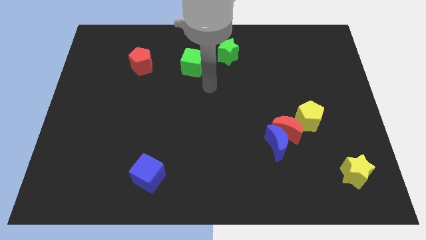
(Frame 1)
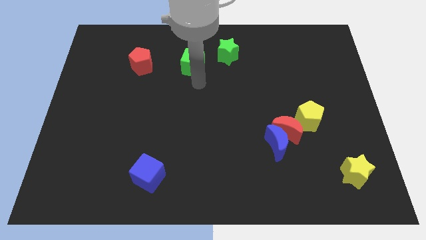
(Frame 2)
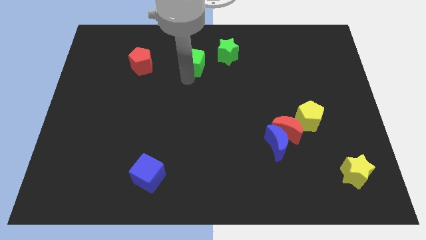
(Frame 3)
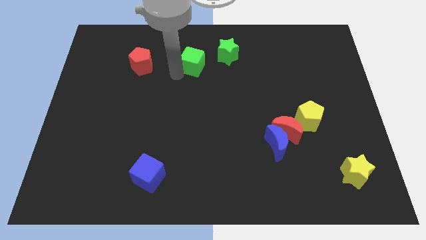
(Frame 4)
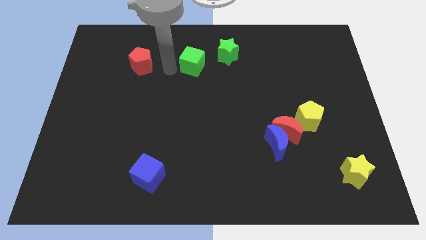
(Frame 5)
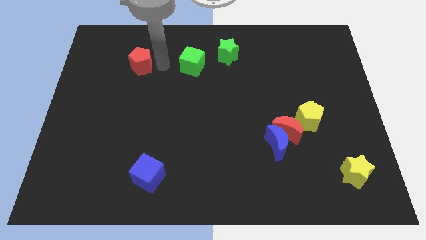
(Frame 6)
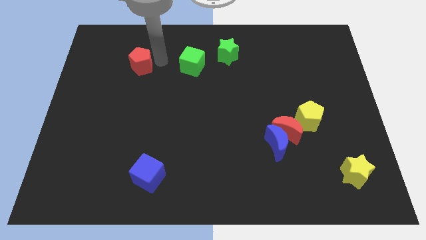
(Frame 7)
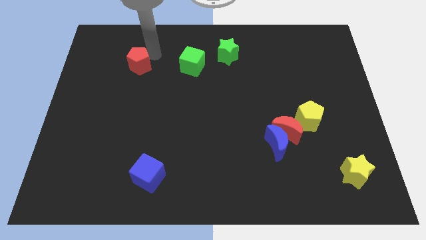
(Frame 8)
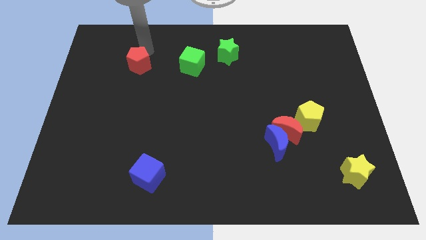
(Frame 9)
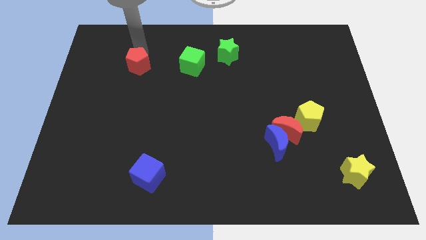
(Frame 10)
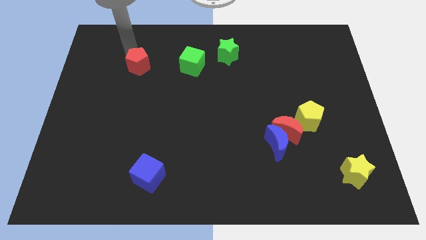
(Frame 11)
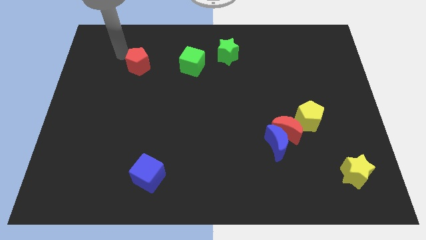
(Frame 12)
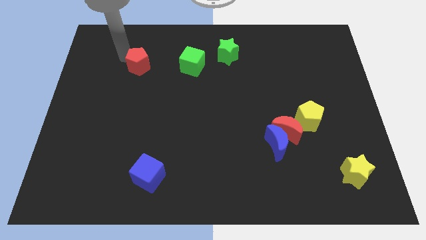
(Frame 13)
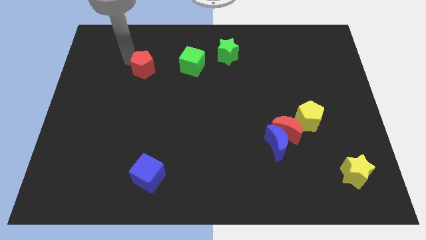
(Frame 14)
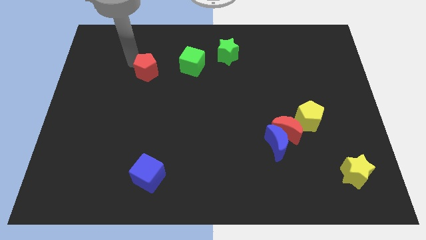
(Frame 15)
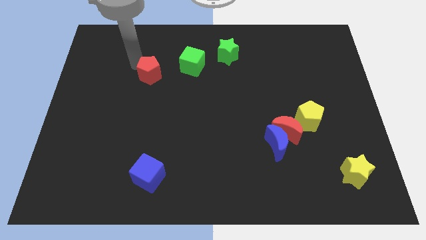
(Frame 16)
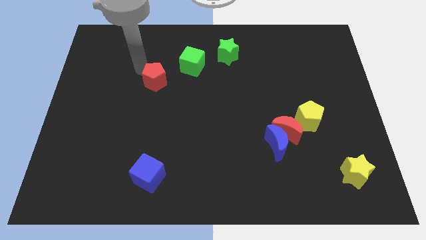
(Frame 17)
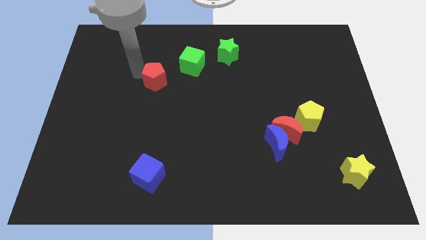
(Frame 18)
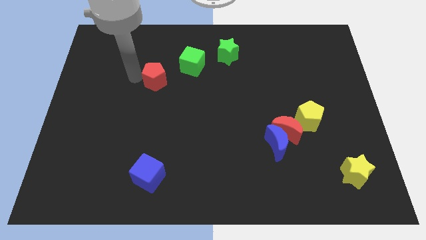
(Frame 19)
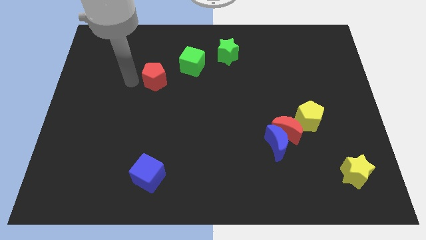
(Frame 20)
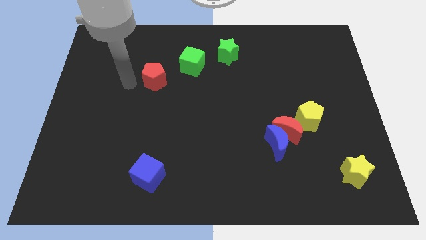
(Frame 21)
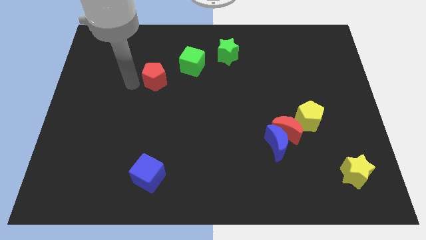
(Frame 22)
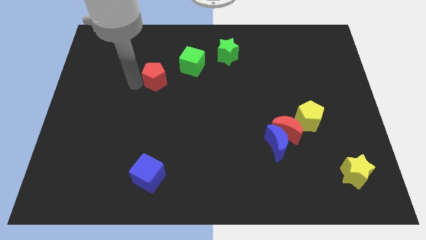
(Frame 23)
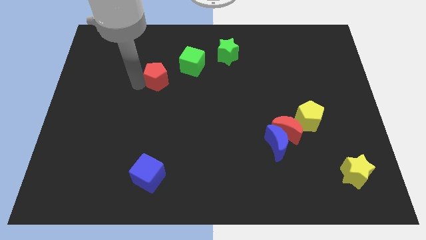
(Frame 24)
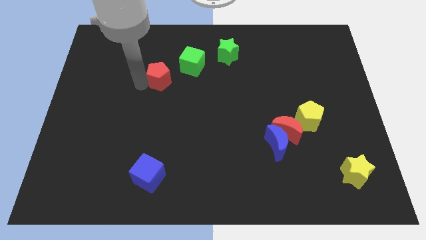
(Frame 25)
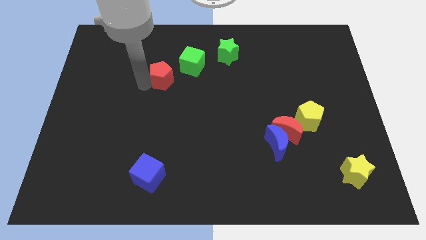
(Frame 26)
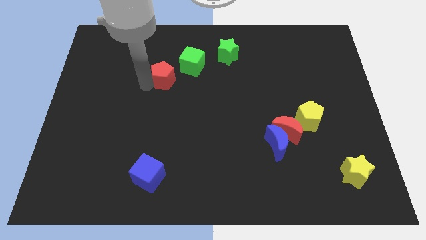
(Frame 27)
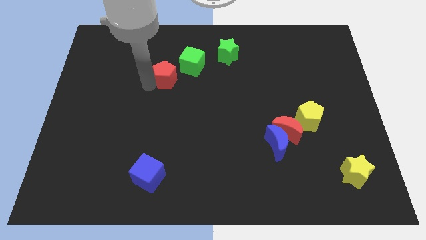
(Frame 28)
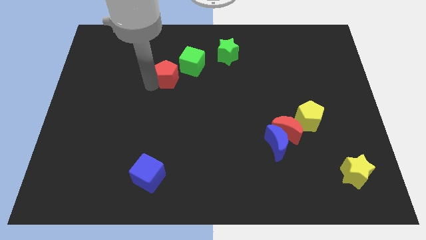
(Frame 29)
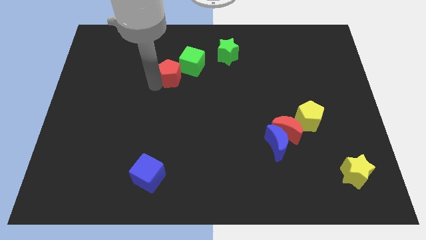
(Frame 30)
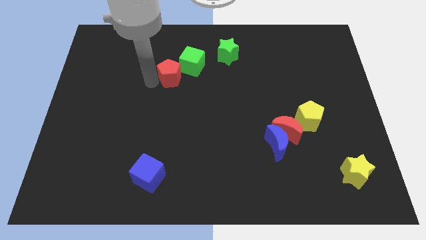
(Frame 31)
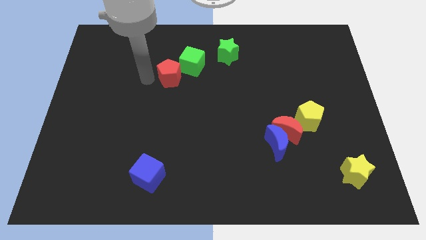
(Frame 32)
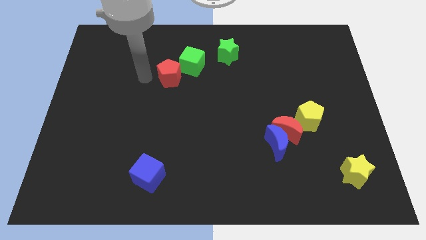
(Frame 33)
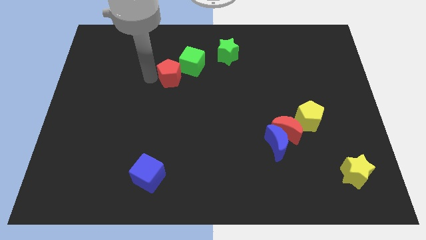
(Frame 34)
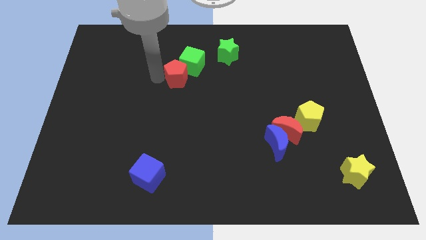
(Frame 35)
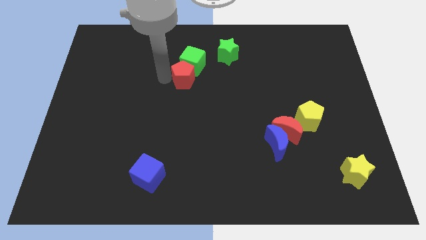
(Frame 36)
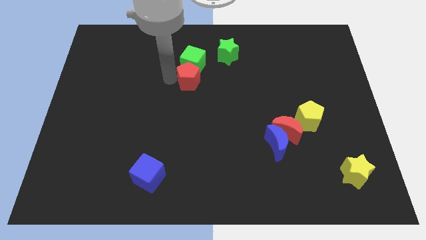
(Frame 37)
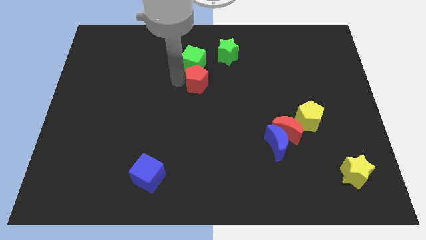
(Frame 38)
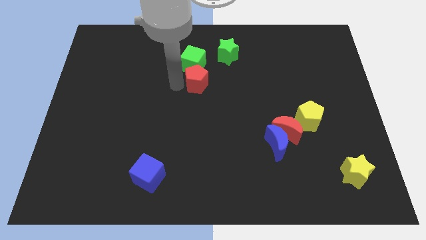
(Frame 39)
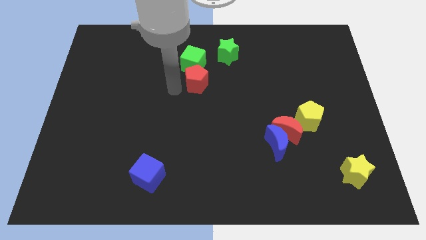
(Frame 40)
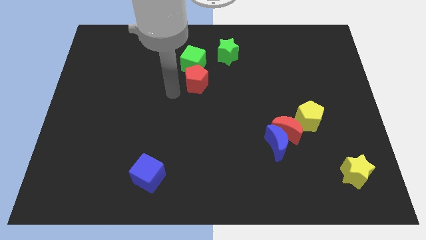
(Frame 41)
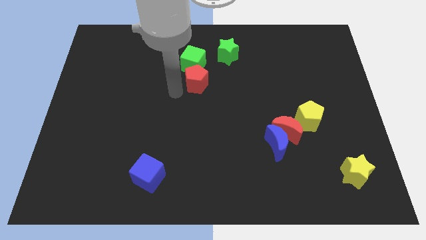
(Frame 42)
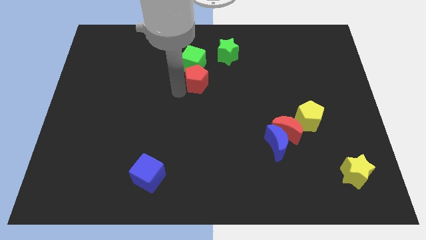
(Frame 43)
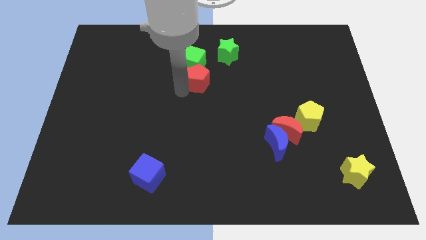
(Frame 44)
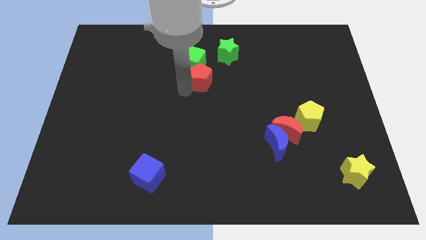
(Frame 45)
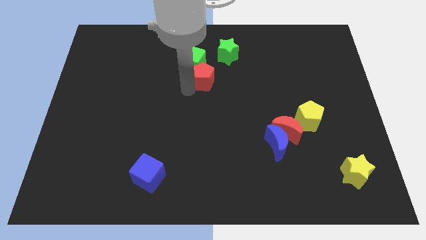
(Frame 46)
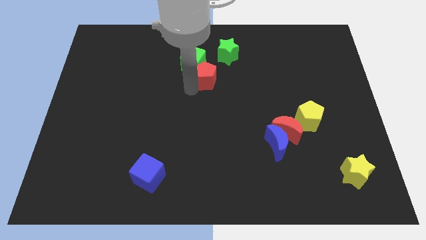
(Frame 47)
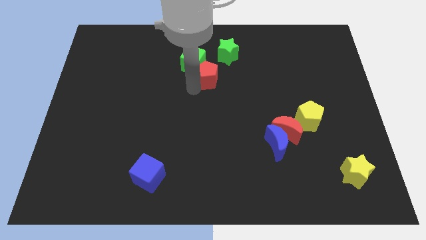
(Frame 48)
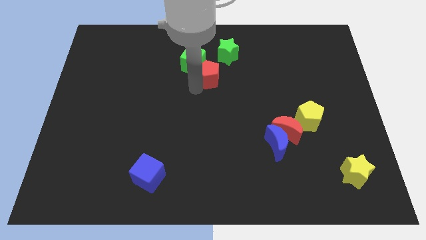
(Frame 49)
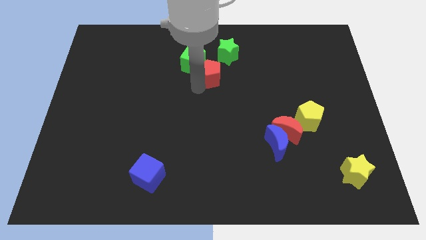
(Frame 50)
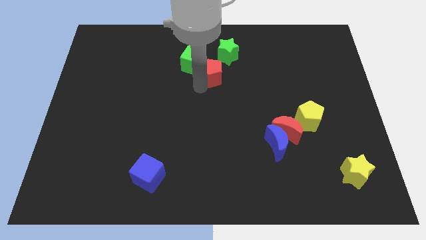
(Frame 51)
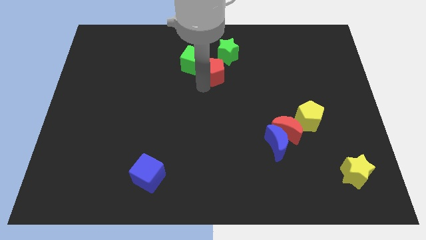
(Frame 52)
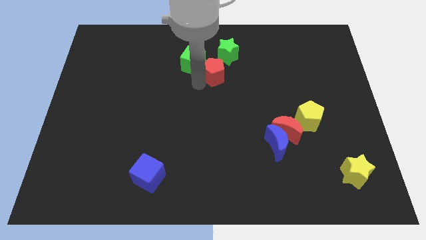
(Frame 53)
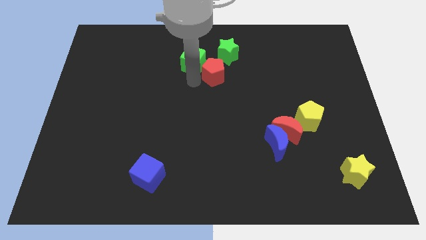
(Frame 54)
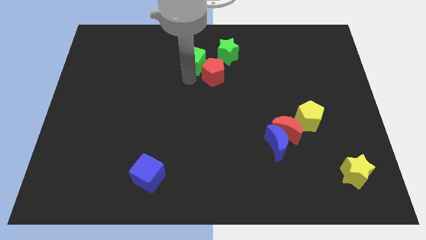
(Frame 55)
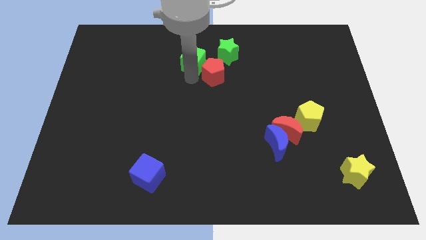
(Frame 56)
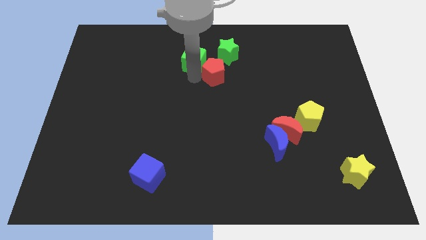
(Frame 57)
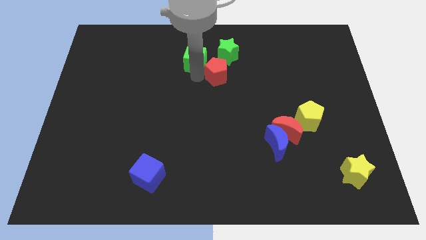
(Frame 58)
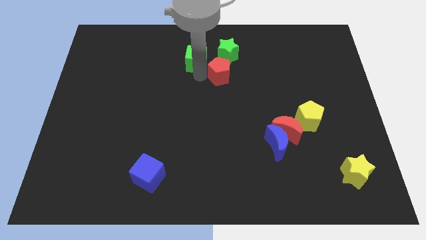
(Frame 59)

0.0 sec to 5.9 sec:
push the red pentagon to the right

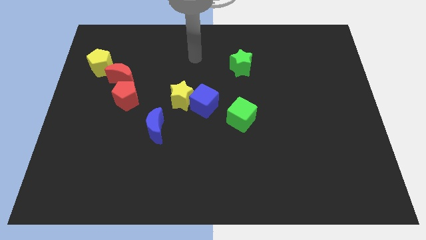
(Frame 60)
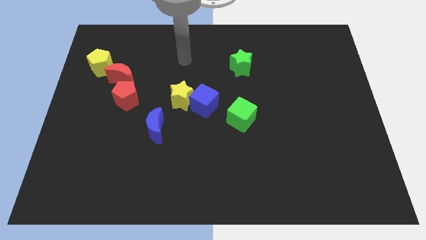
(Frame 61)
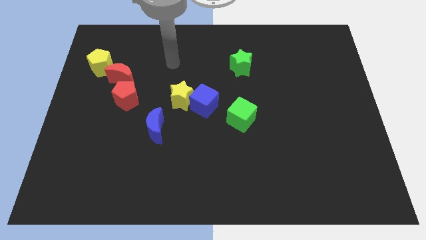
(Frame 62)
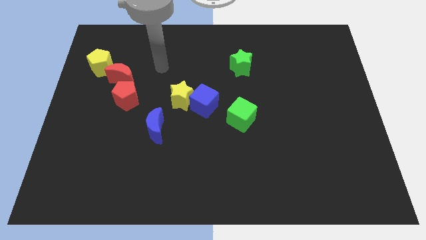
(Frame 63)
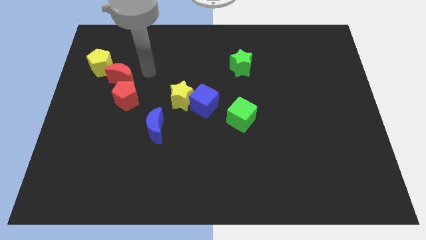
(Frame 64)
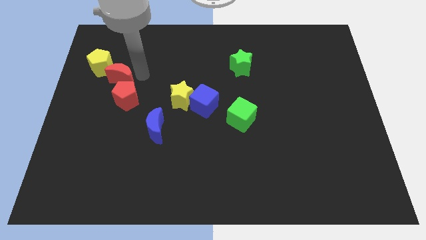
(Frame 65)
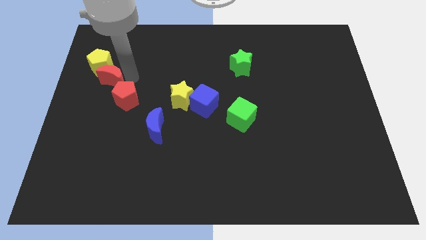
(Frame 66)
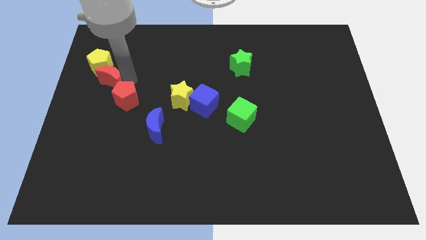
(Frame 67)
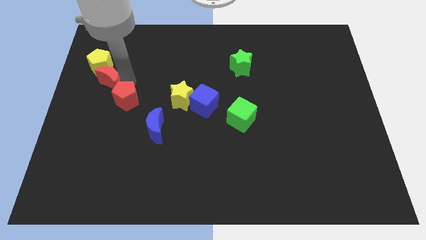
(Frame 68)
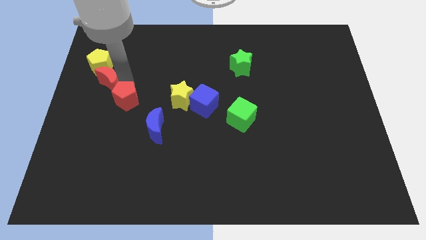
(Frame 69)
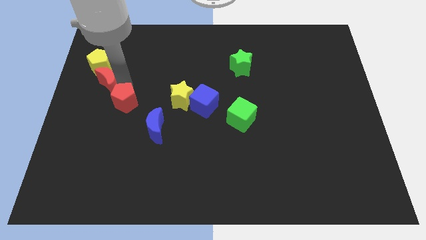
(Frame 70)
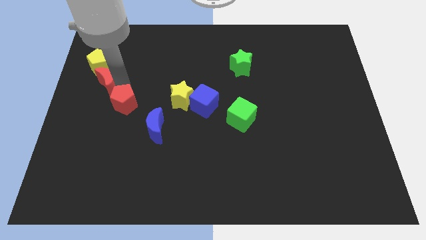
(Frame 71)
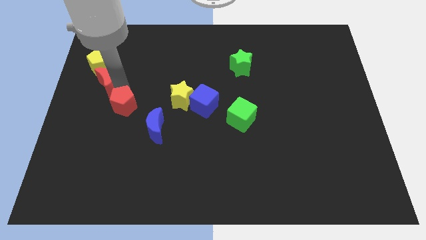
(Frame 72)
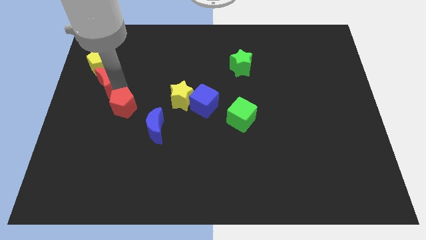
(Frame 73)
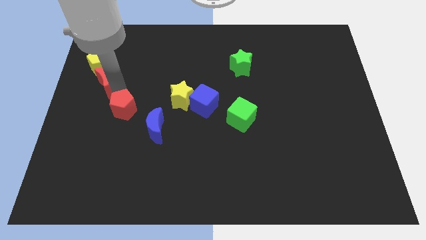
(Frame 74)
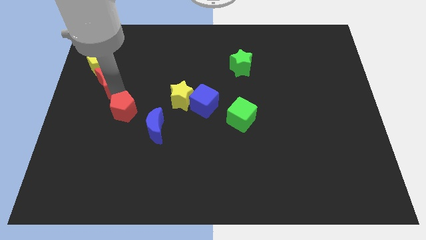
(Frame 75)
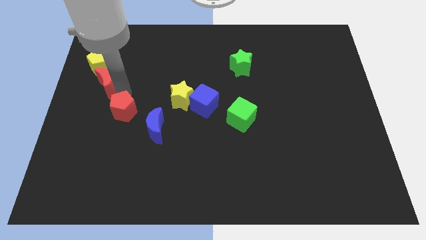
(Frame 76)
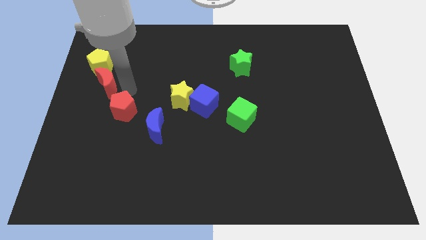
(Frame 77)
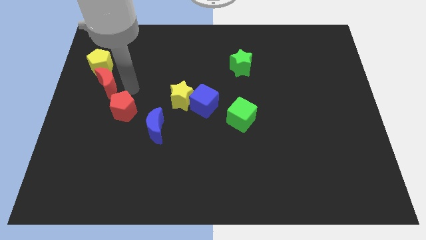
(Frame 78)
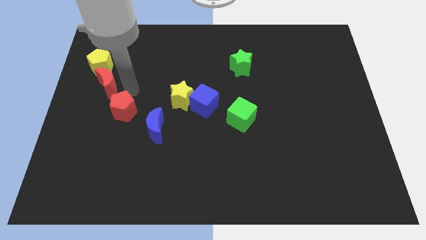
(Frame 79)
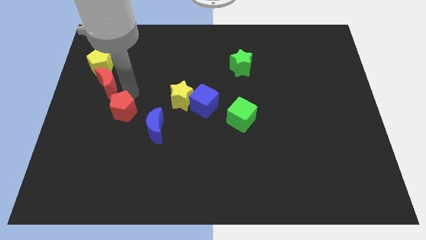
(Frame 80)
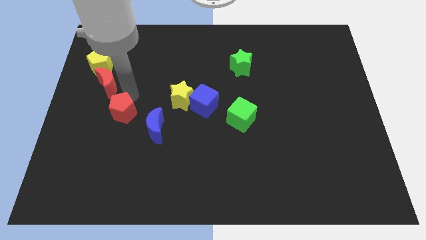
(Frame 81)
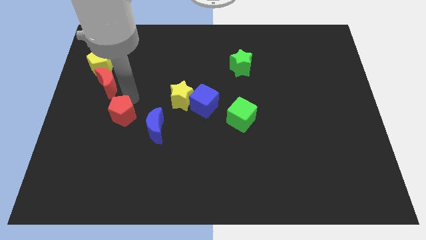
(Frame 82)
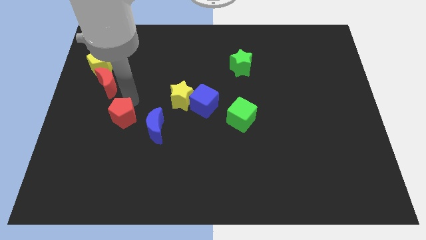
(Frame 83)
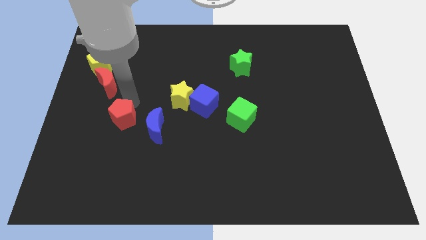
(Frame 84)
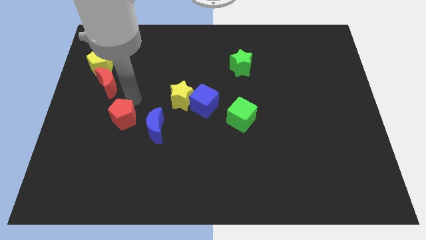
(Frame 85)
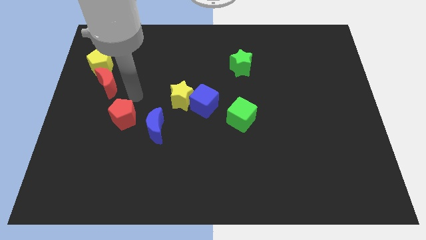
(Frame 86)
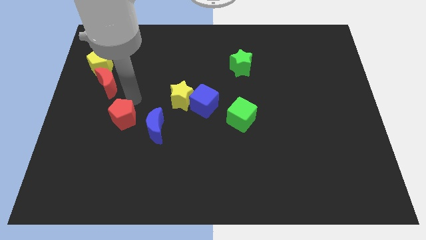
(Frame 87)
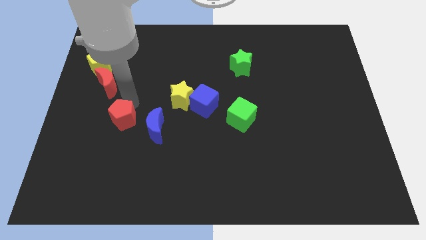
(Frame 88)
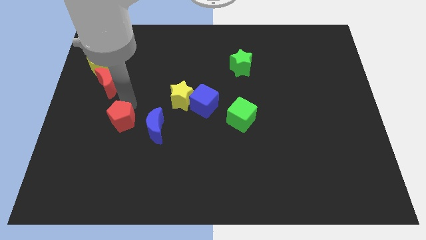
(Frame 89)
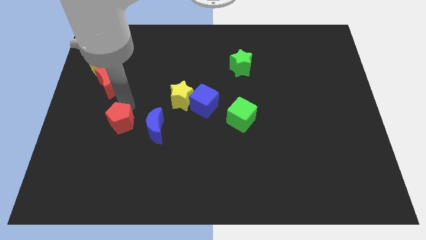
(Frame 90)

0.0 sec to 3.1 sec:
move the red pentagon downwards slightly
